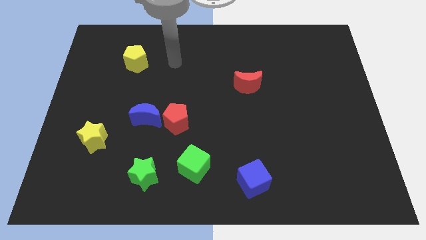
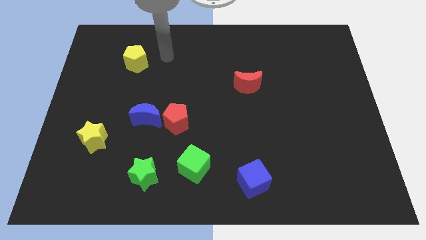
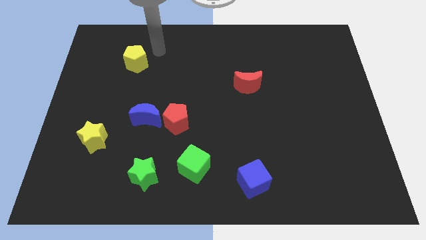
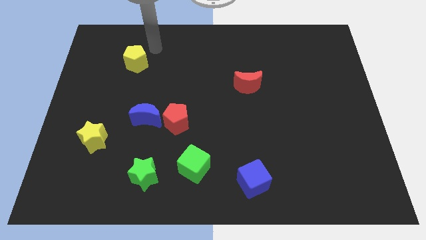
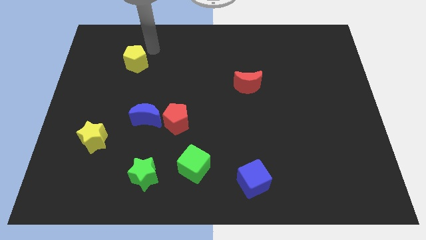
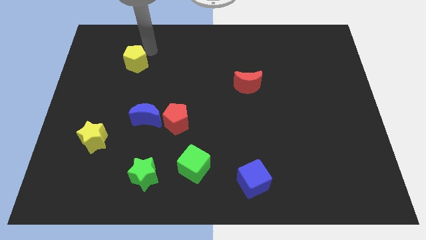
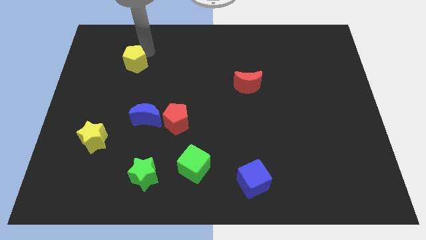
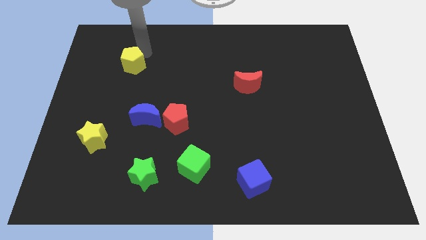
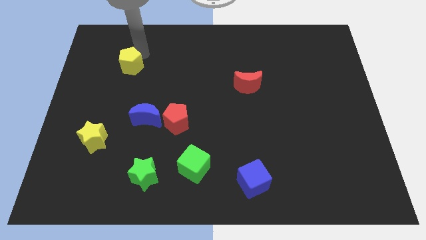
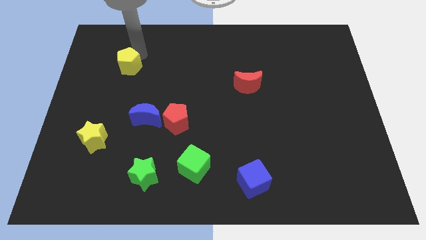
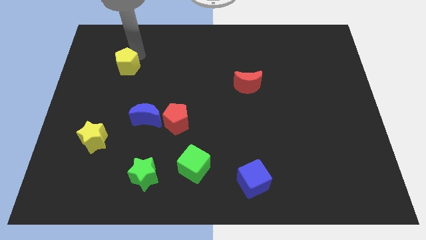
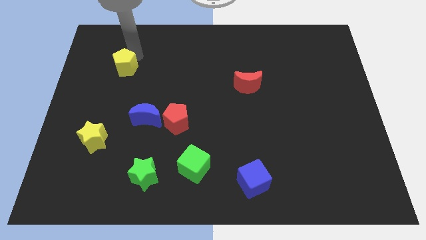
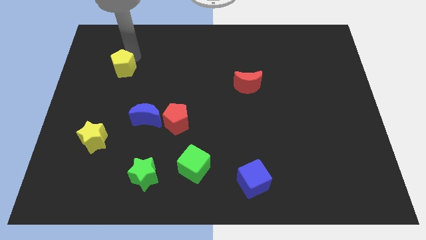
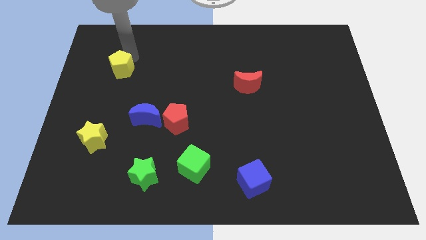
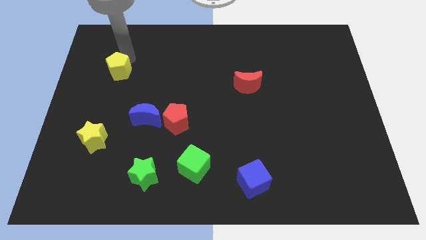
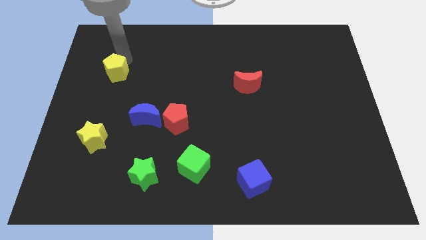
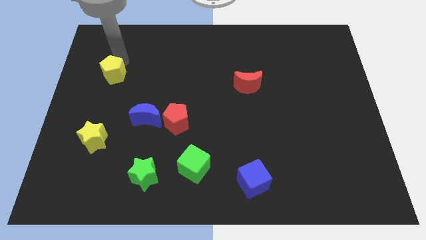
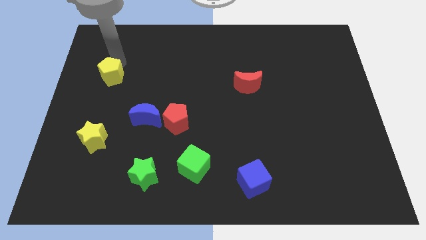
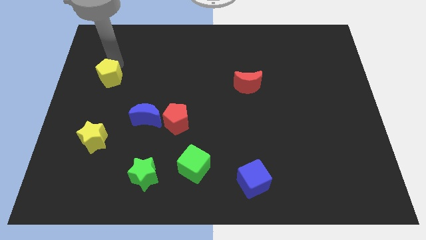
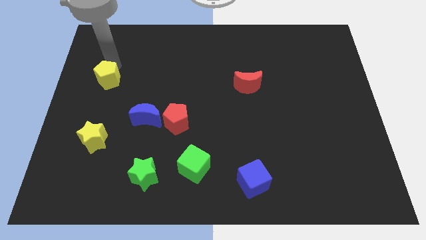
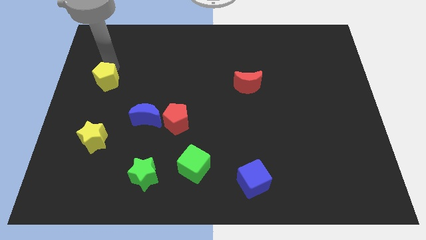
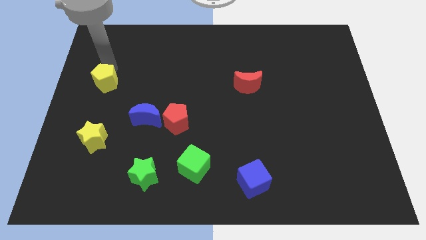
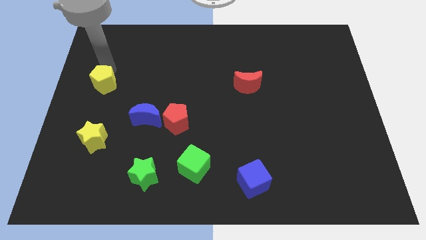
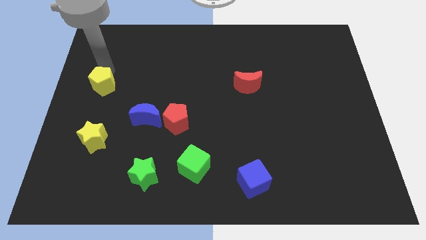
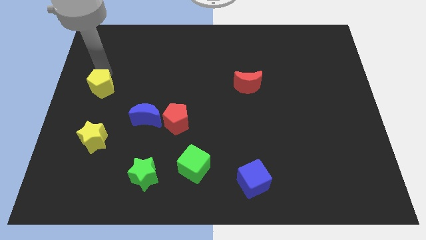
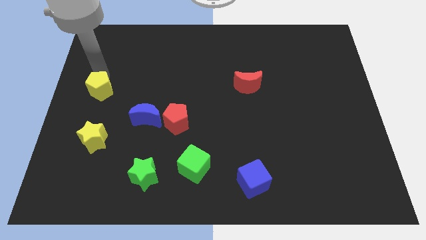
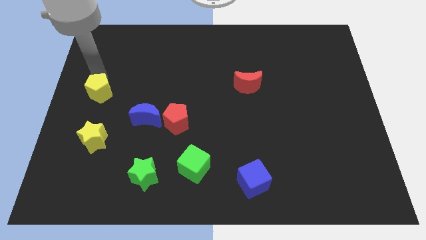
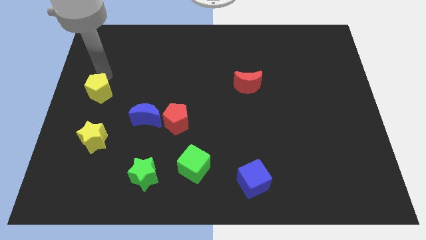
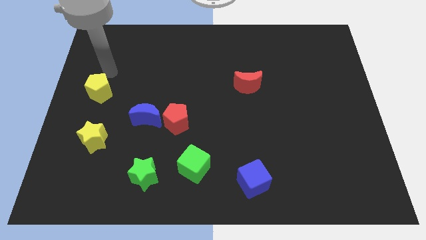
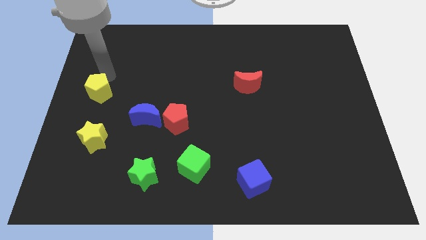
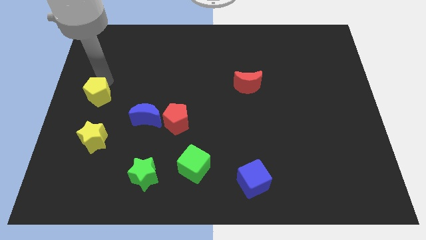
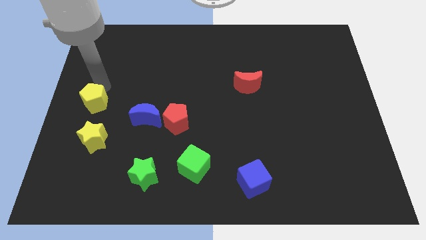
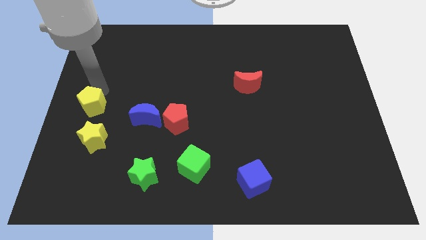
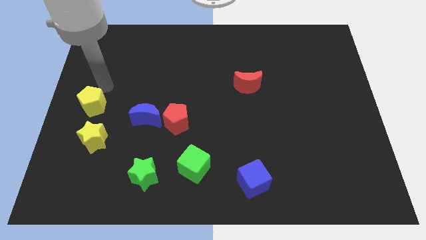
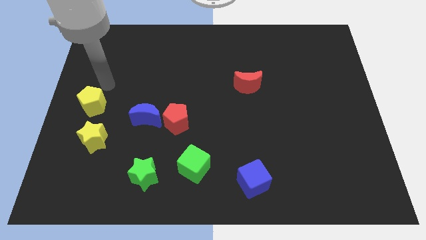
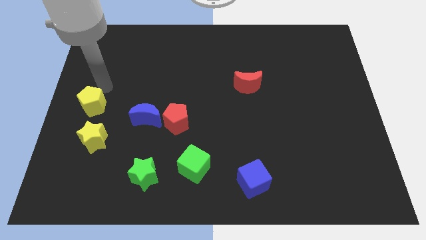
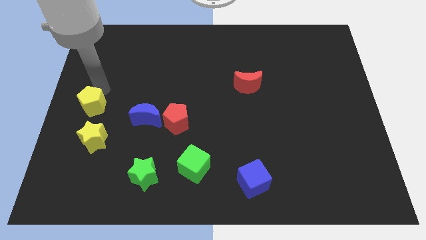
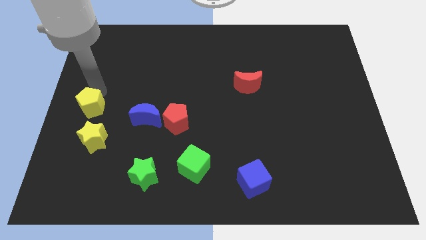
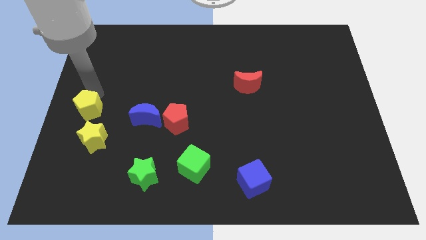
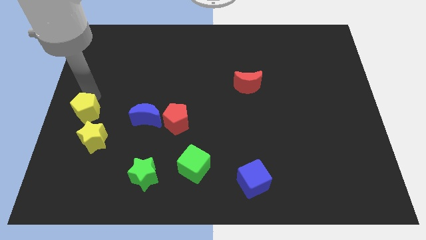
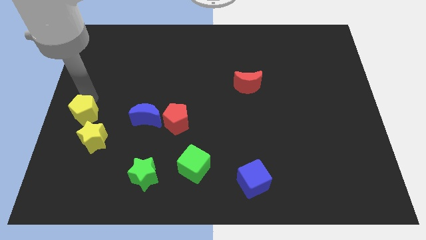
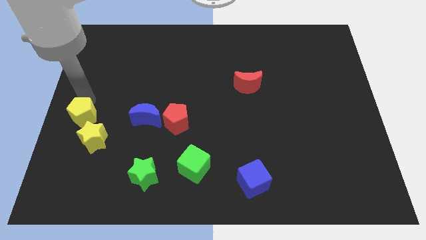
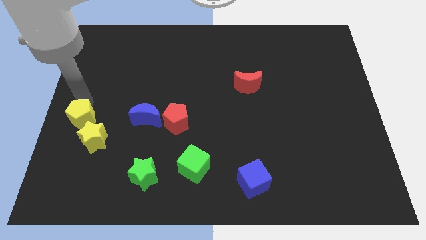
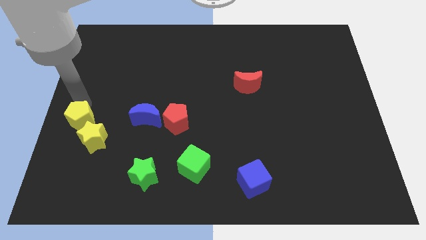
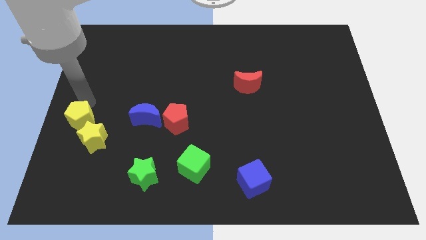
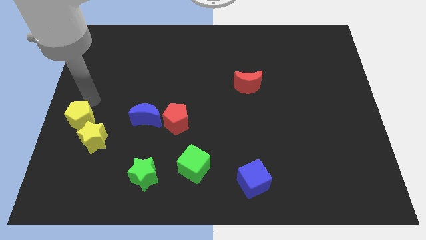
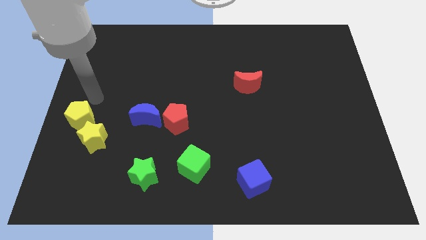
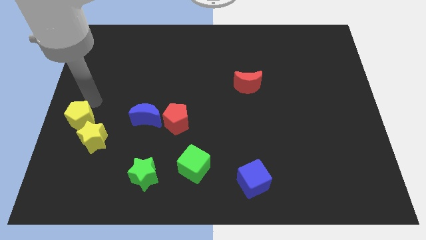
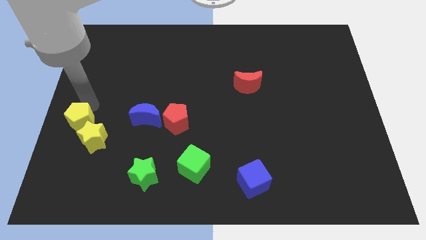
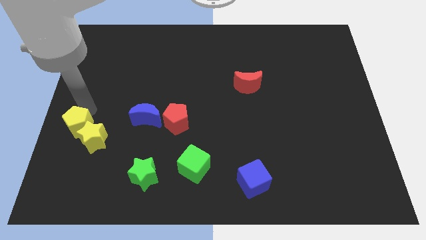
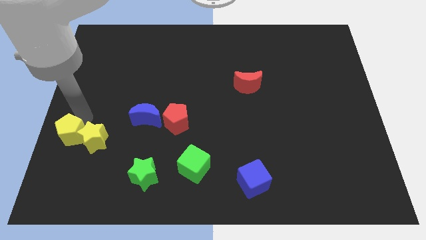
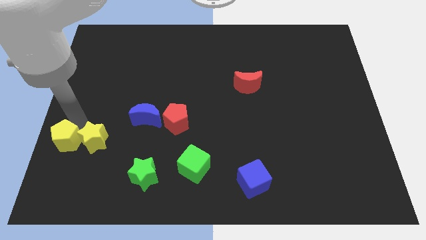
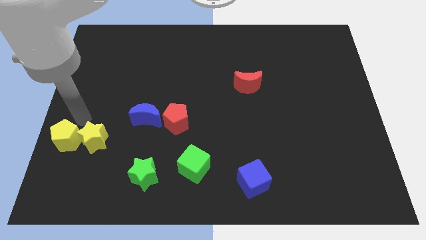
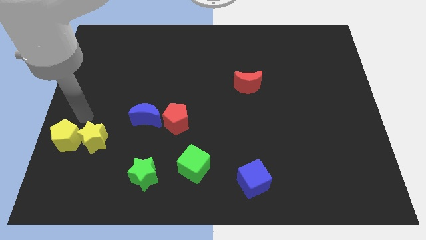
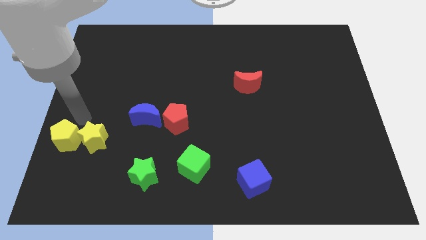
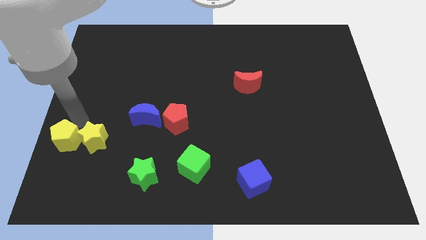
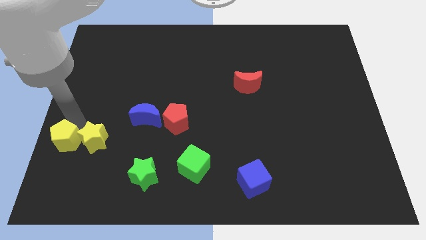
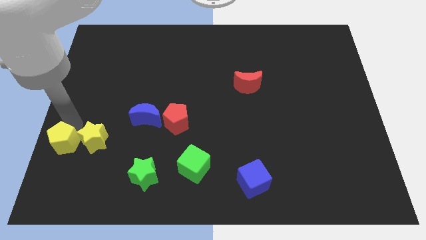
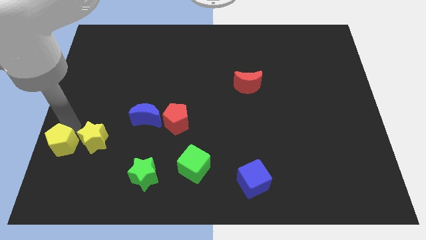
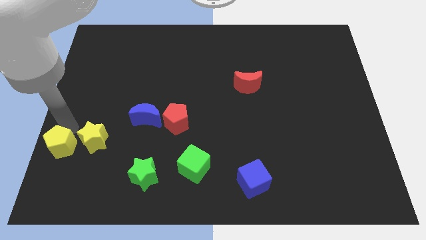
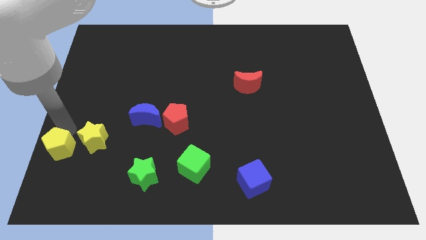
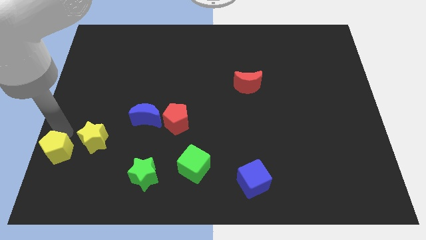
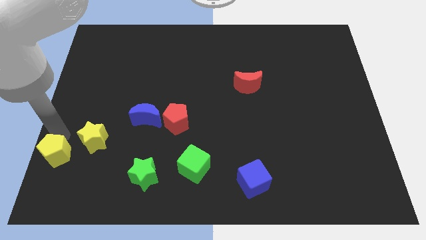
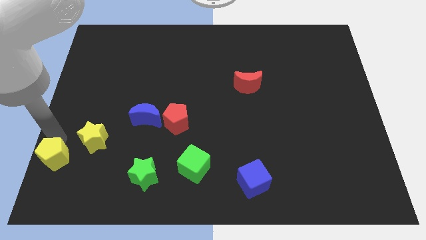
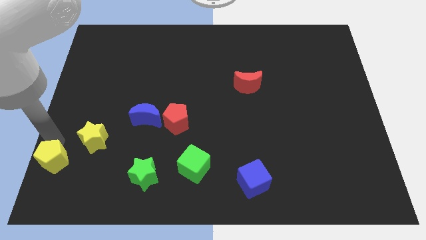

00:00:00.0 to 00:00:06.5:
slide the yellow pentagon to the lower left corner
